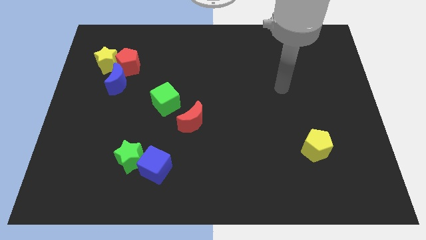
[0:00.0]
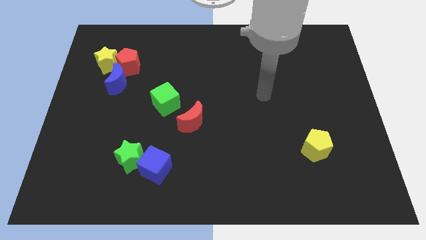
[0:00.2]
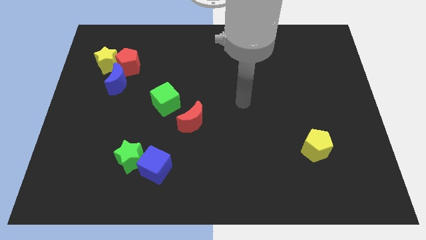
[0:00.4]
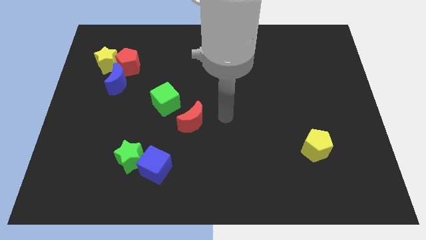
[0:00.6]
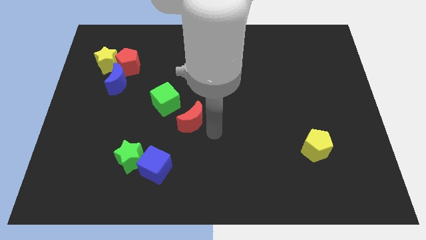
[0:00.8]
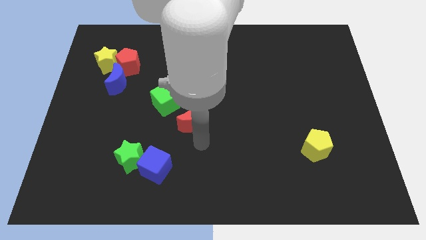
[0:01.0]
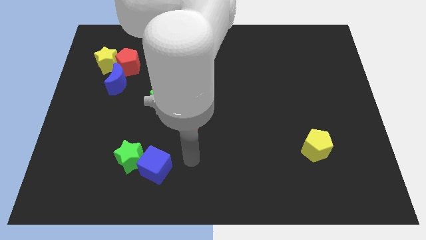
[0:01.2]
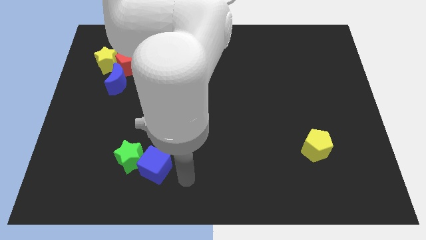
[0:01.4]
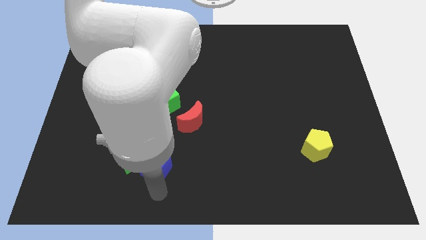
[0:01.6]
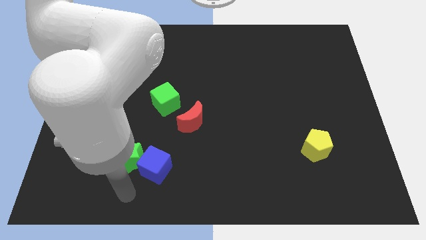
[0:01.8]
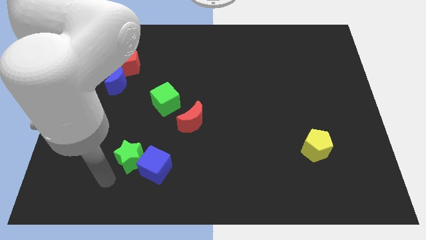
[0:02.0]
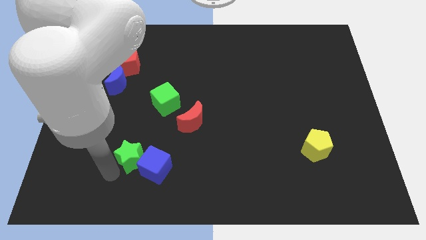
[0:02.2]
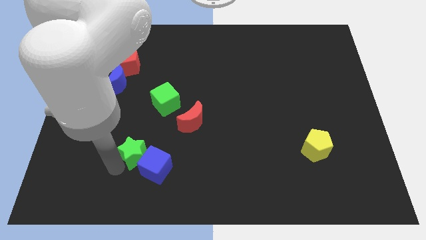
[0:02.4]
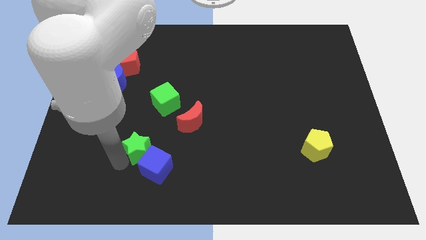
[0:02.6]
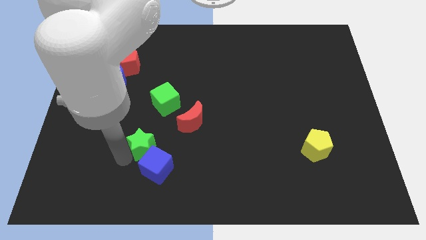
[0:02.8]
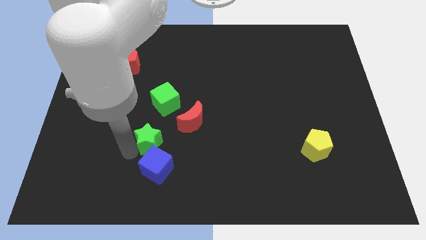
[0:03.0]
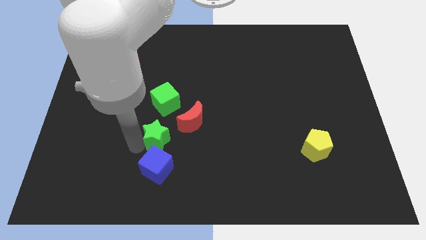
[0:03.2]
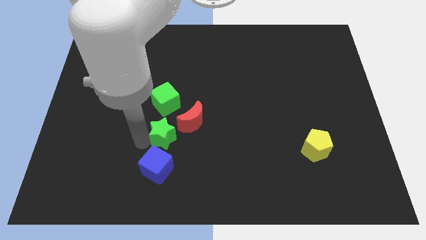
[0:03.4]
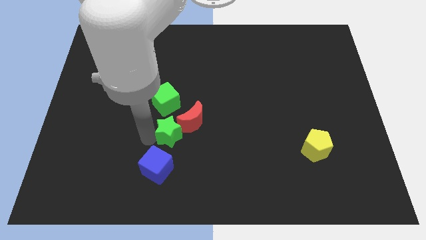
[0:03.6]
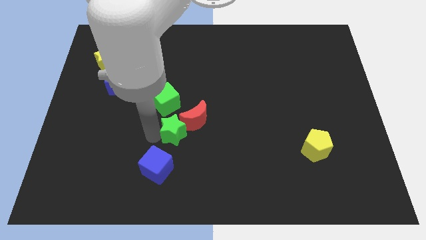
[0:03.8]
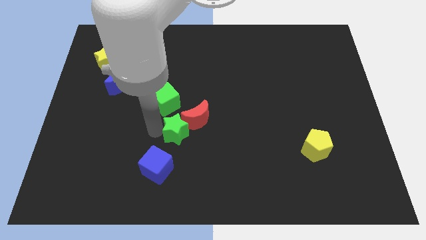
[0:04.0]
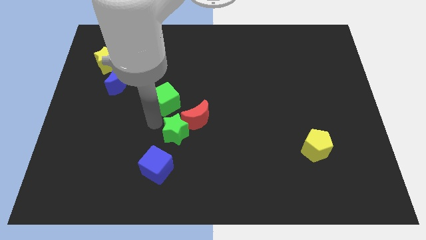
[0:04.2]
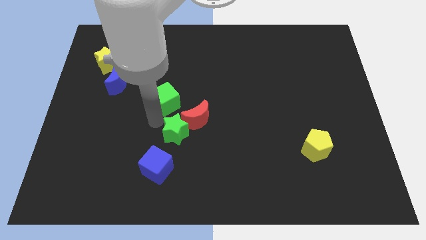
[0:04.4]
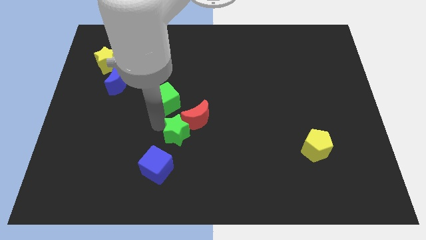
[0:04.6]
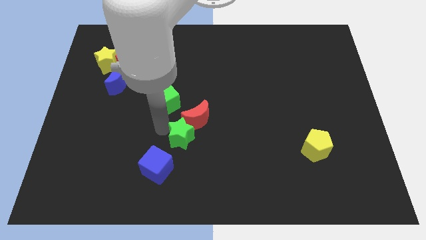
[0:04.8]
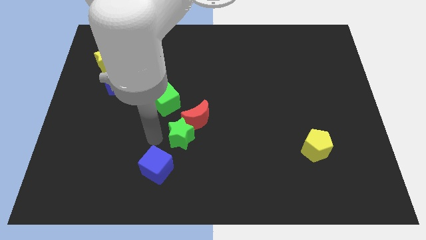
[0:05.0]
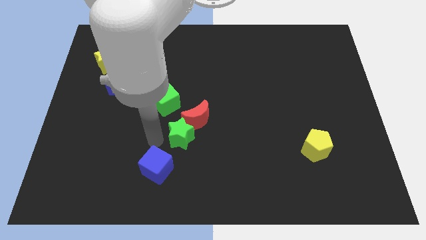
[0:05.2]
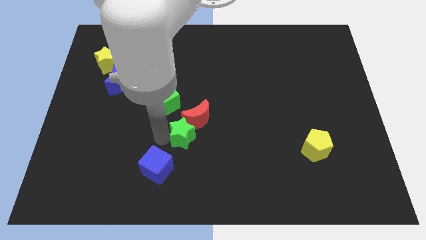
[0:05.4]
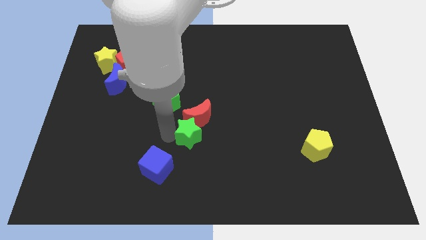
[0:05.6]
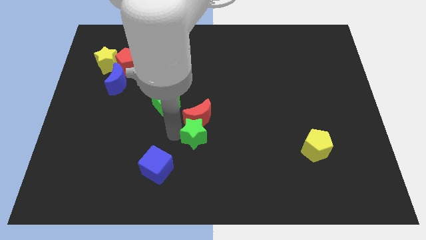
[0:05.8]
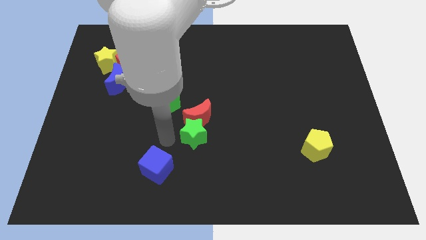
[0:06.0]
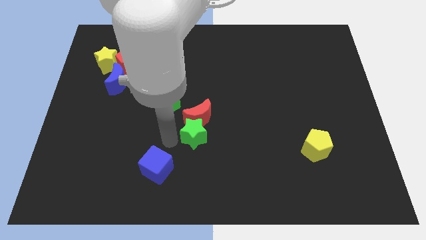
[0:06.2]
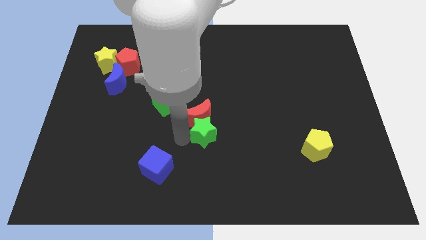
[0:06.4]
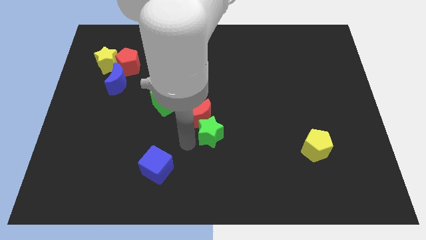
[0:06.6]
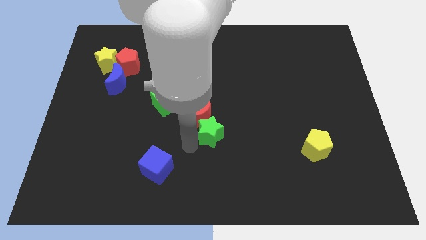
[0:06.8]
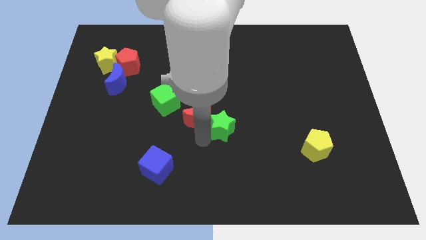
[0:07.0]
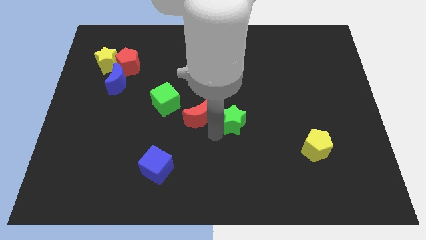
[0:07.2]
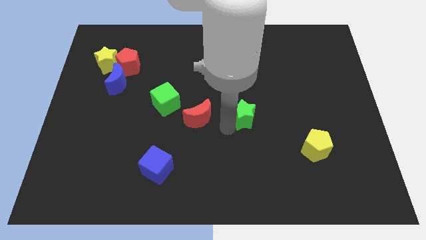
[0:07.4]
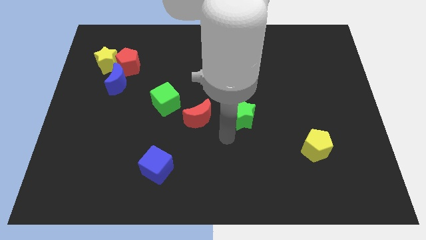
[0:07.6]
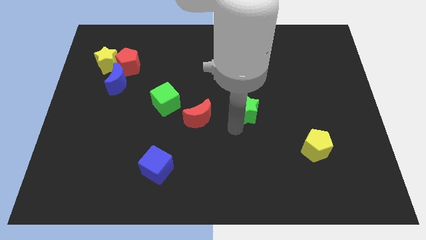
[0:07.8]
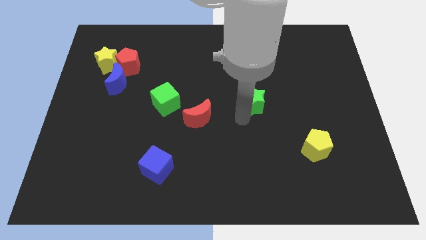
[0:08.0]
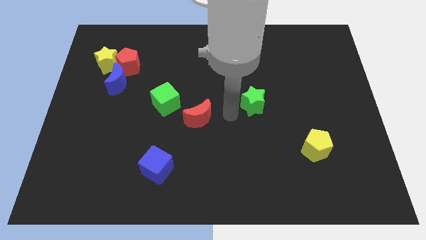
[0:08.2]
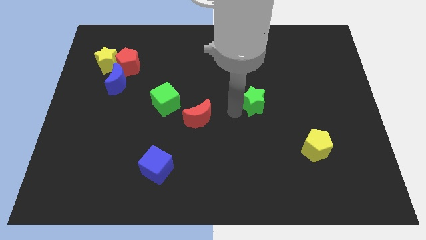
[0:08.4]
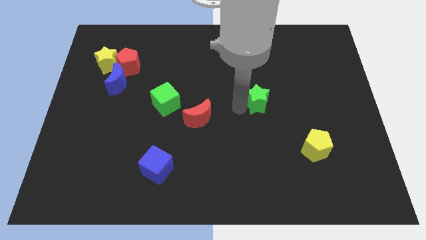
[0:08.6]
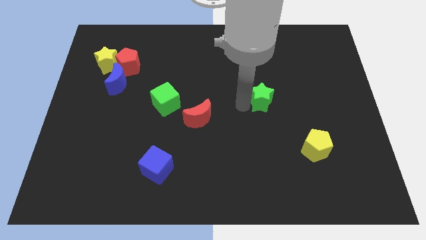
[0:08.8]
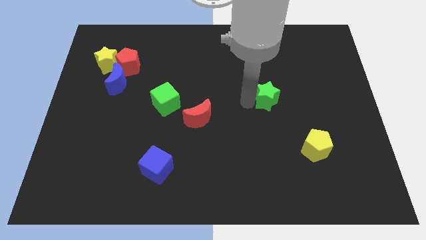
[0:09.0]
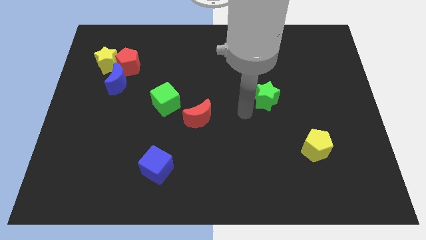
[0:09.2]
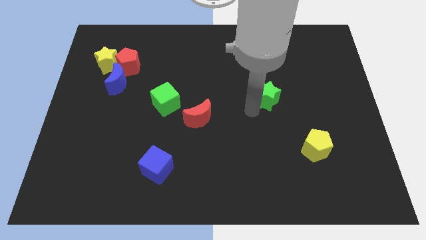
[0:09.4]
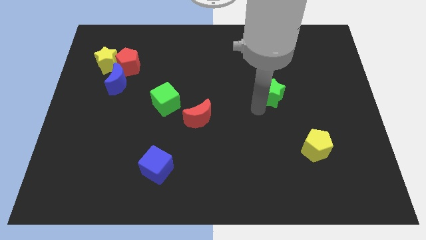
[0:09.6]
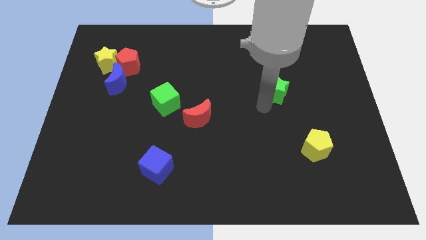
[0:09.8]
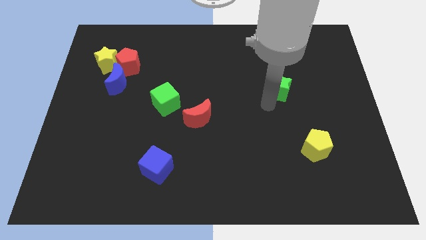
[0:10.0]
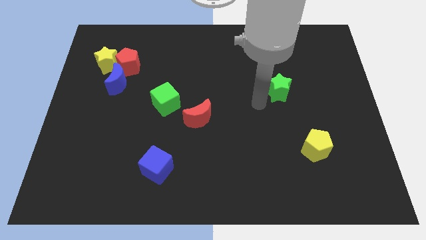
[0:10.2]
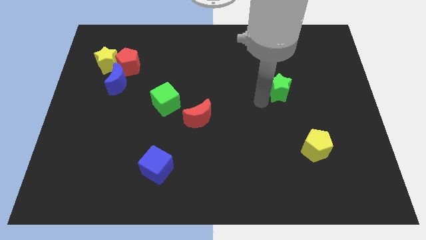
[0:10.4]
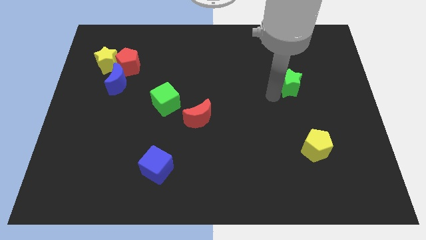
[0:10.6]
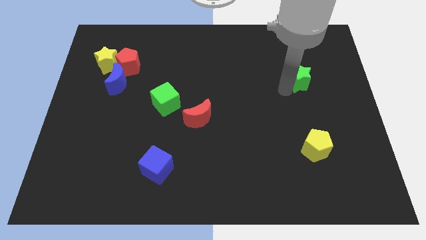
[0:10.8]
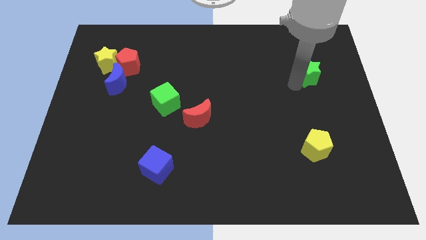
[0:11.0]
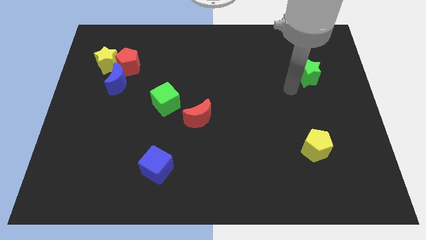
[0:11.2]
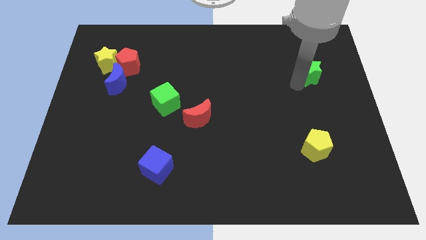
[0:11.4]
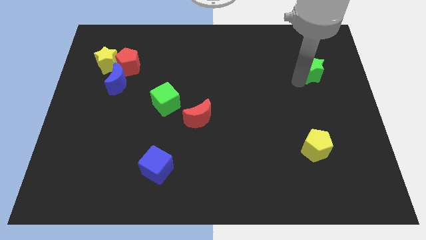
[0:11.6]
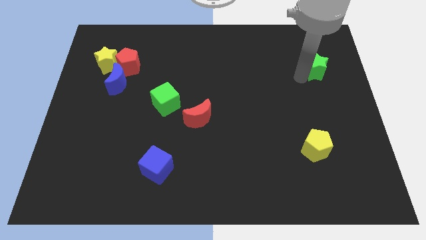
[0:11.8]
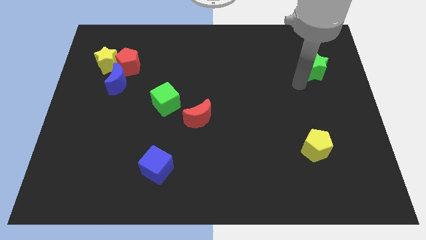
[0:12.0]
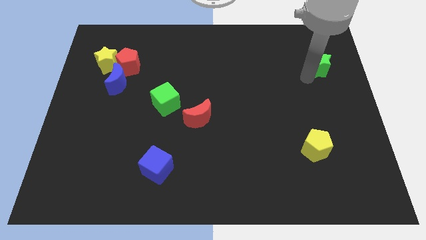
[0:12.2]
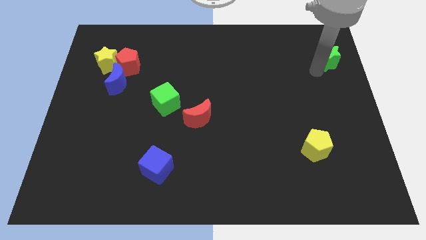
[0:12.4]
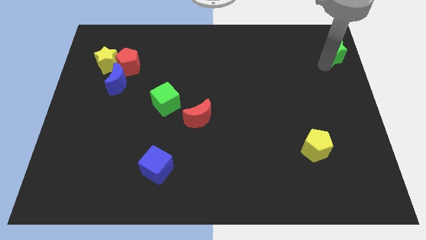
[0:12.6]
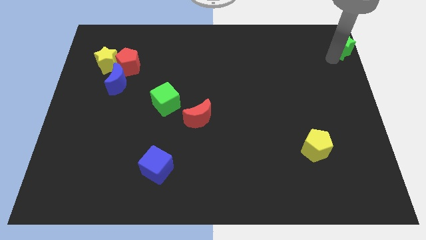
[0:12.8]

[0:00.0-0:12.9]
move the green star to the top right

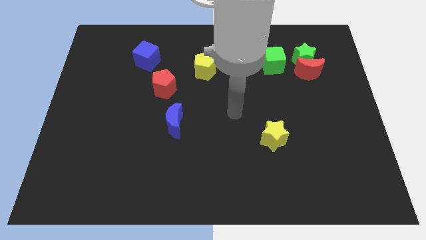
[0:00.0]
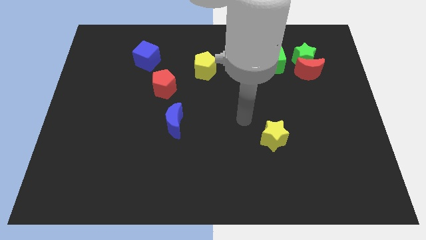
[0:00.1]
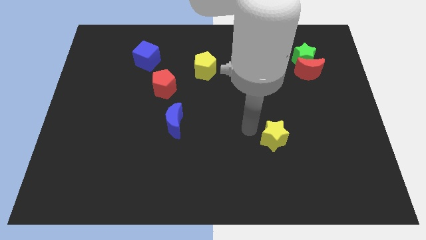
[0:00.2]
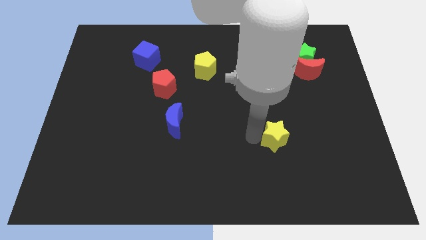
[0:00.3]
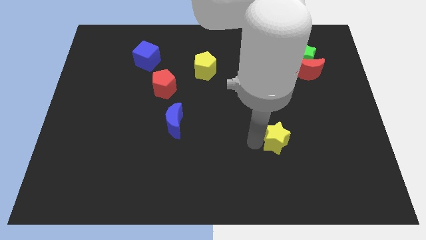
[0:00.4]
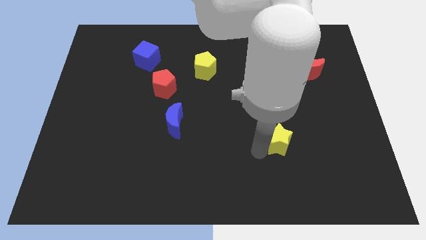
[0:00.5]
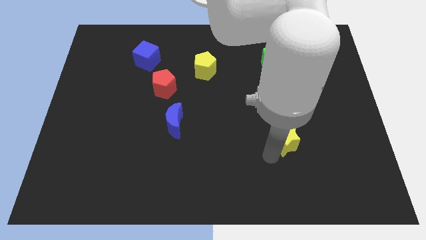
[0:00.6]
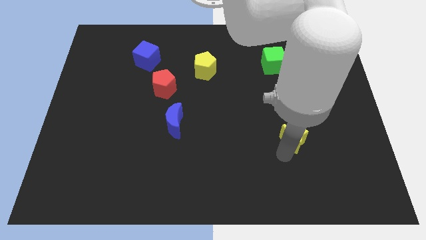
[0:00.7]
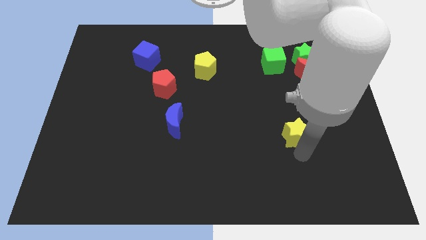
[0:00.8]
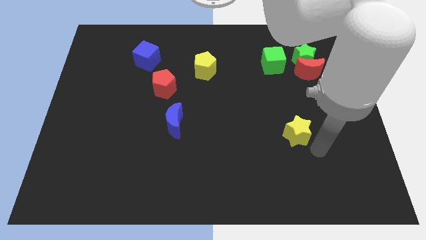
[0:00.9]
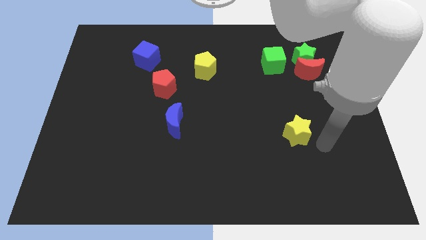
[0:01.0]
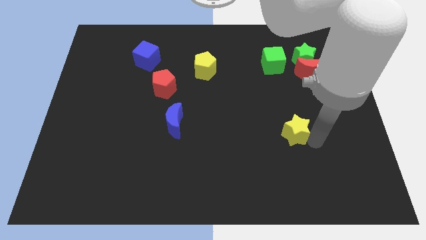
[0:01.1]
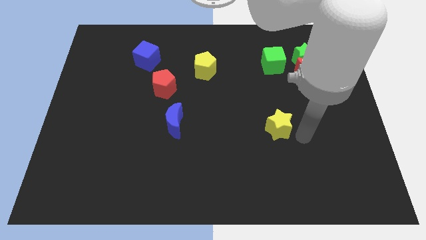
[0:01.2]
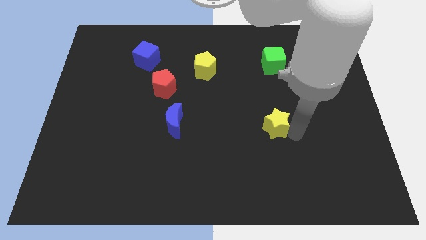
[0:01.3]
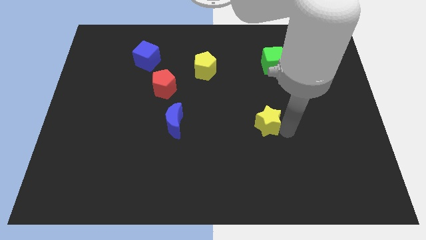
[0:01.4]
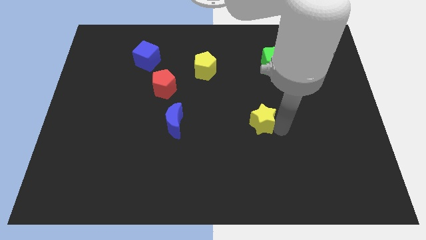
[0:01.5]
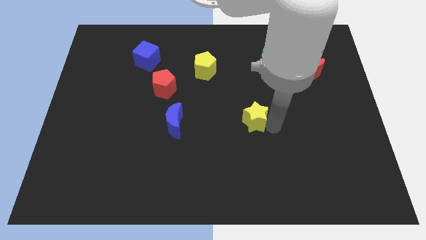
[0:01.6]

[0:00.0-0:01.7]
move the yellow star to the middle
